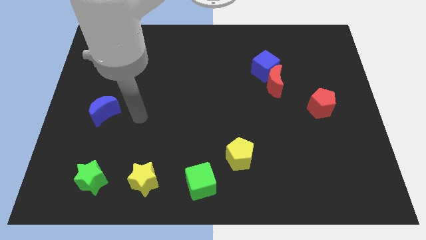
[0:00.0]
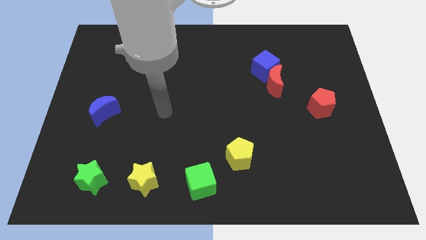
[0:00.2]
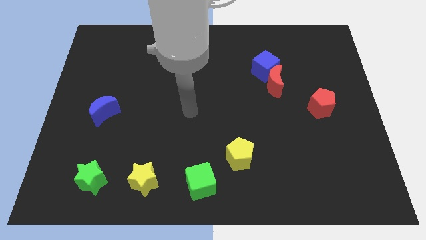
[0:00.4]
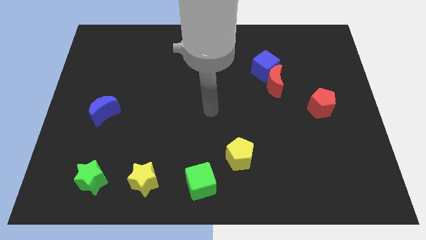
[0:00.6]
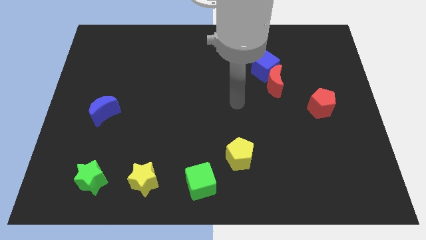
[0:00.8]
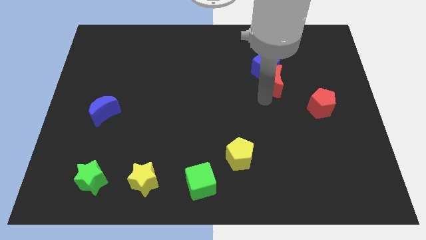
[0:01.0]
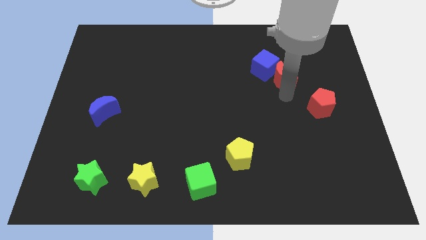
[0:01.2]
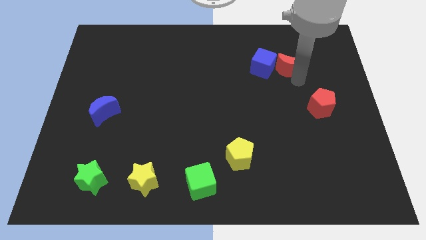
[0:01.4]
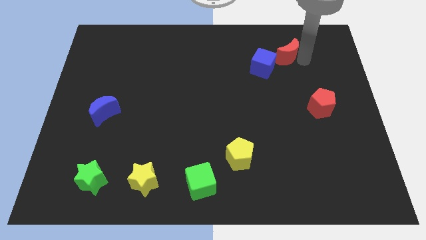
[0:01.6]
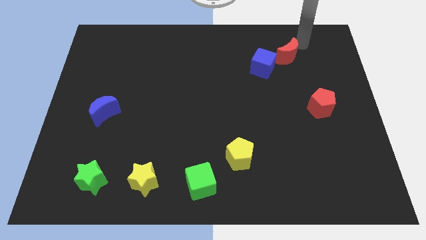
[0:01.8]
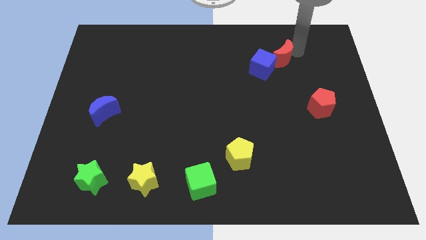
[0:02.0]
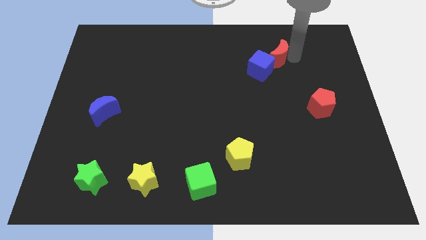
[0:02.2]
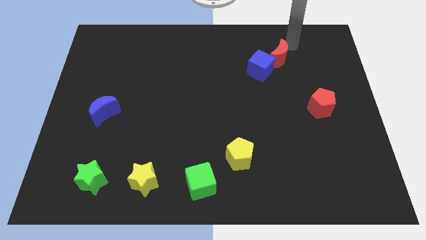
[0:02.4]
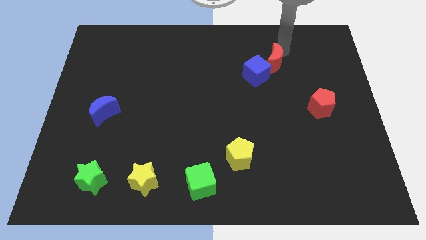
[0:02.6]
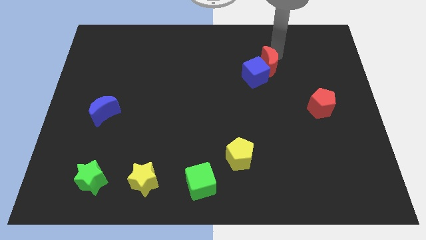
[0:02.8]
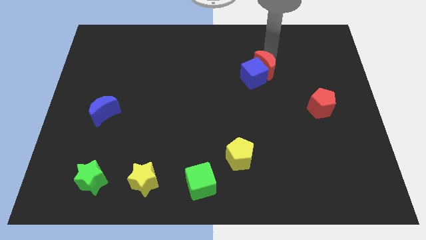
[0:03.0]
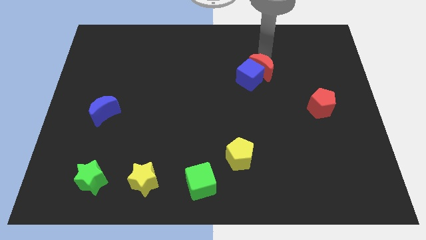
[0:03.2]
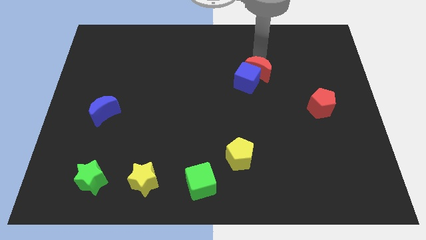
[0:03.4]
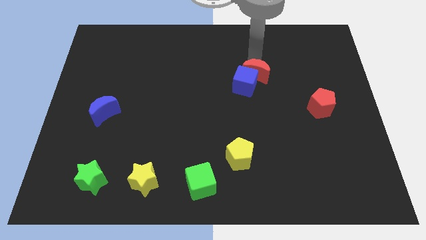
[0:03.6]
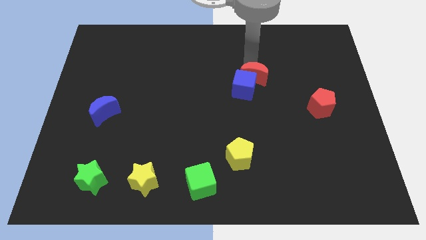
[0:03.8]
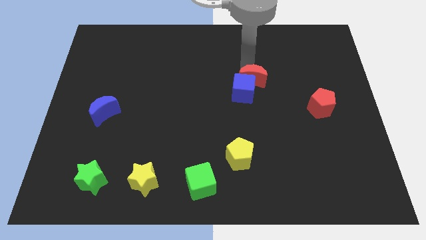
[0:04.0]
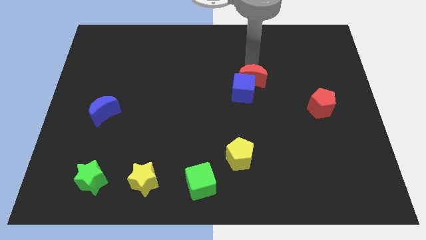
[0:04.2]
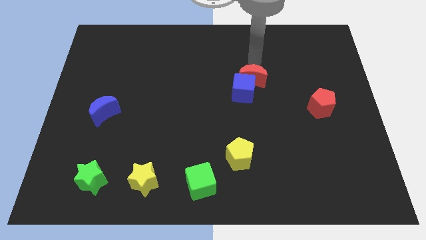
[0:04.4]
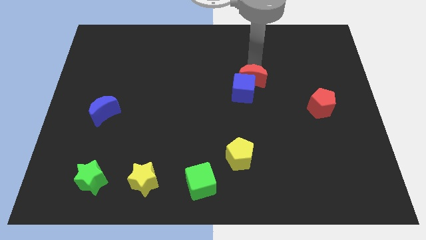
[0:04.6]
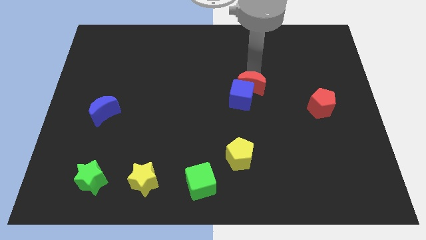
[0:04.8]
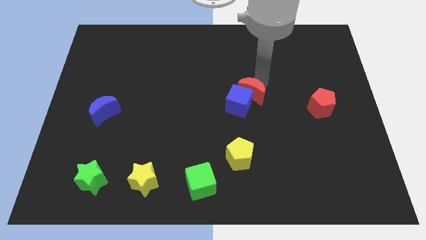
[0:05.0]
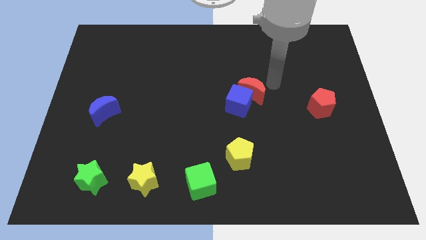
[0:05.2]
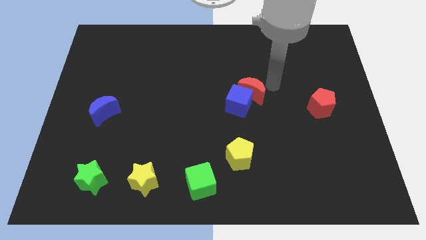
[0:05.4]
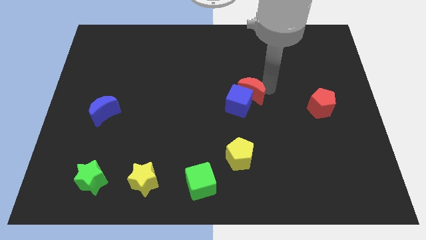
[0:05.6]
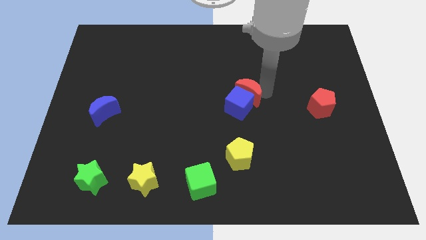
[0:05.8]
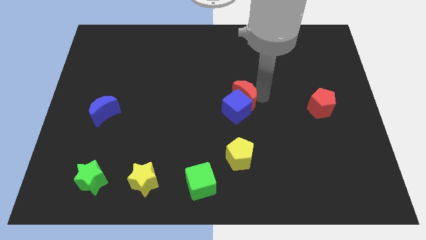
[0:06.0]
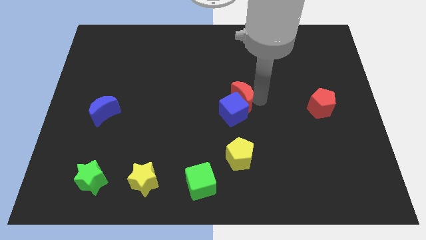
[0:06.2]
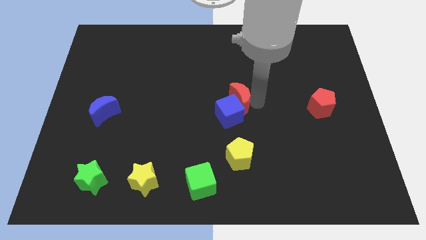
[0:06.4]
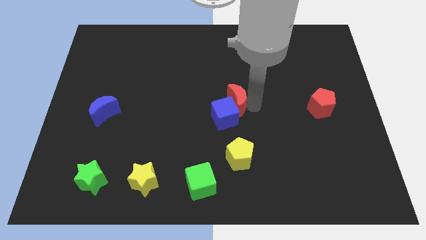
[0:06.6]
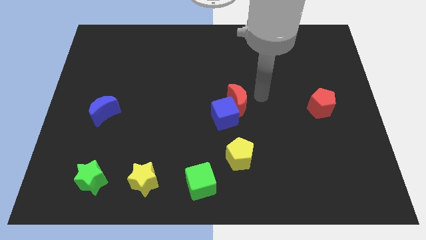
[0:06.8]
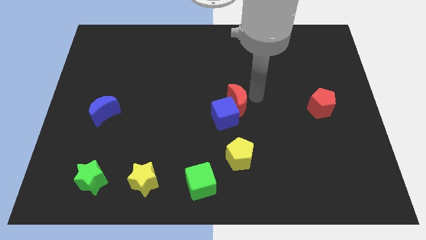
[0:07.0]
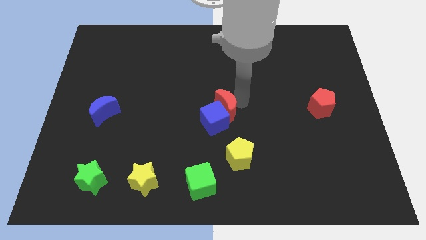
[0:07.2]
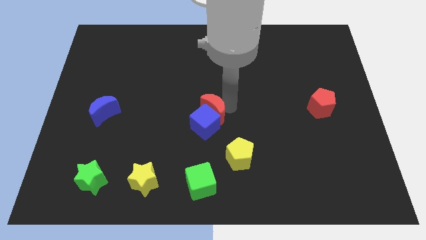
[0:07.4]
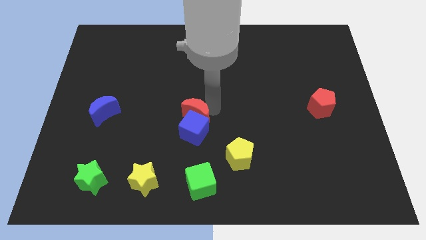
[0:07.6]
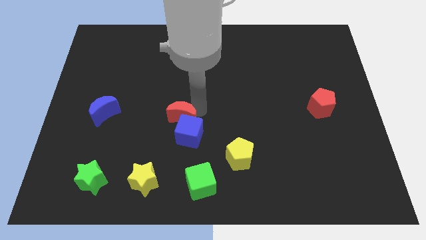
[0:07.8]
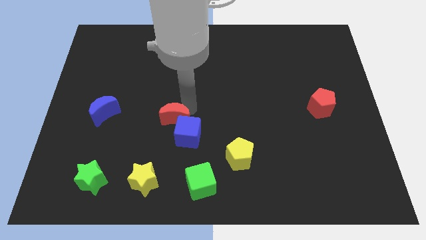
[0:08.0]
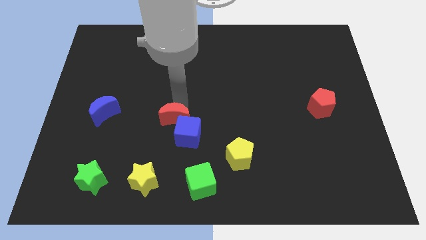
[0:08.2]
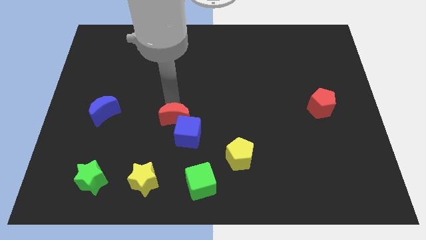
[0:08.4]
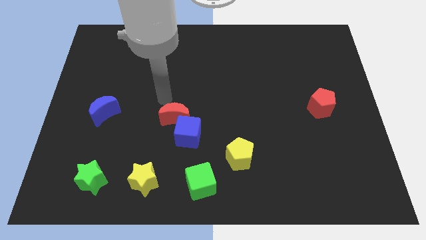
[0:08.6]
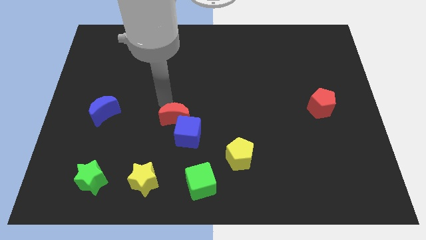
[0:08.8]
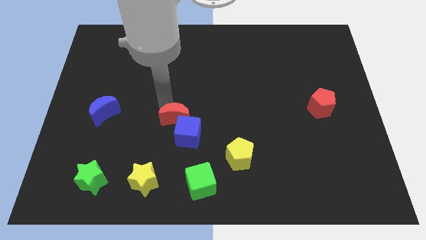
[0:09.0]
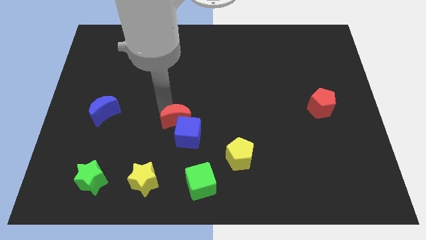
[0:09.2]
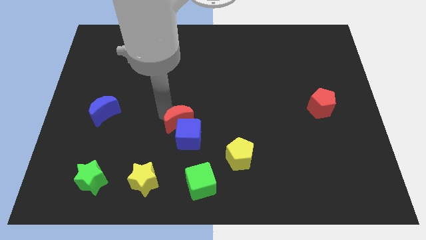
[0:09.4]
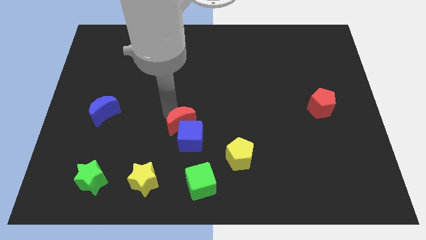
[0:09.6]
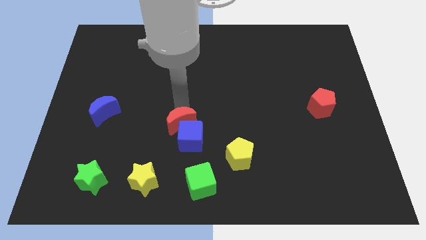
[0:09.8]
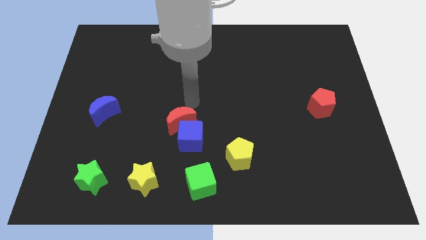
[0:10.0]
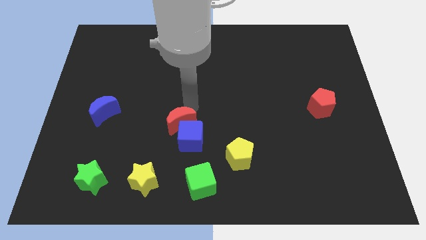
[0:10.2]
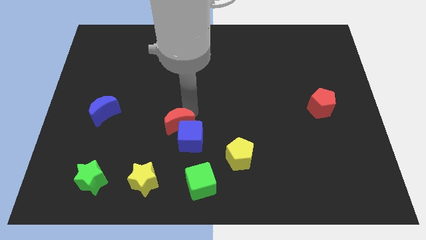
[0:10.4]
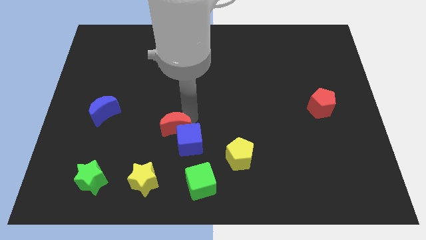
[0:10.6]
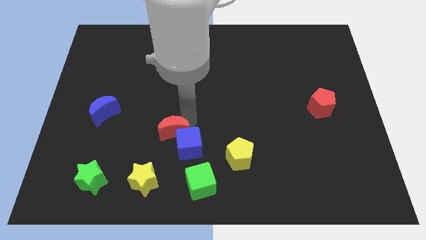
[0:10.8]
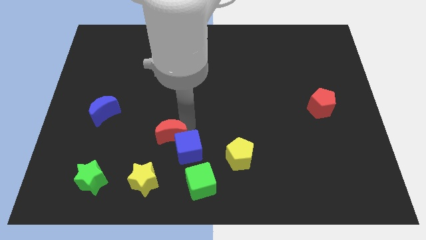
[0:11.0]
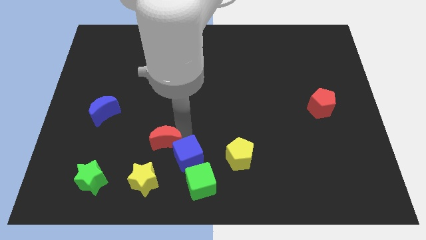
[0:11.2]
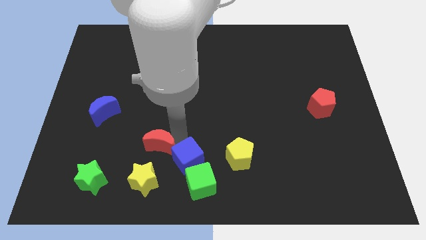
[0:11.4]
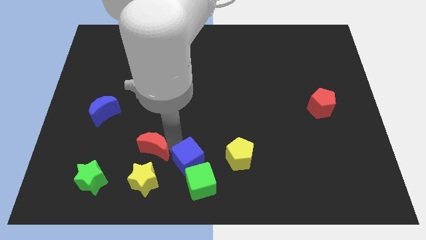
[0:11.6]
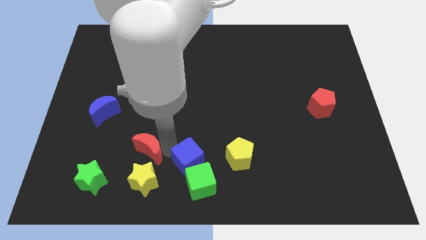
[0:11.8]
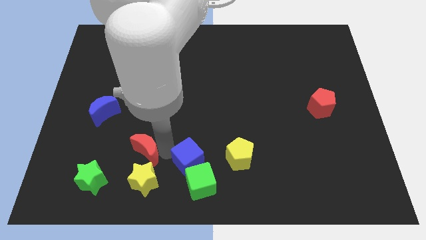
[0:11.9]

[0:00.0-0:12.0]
push the red moon to the top left of the yellow star

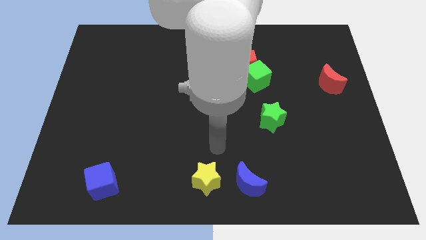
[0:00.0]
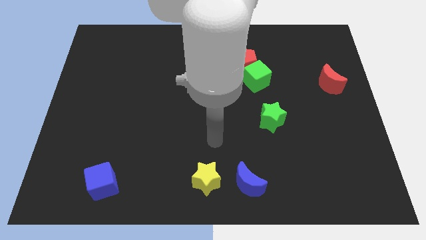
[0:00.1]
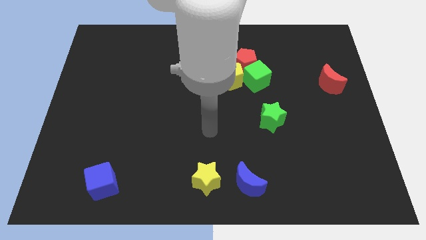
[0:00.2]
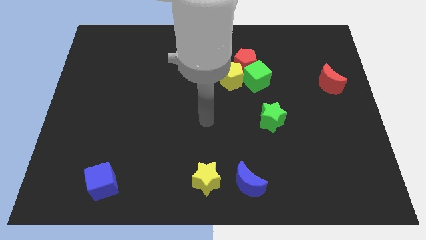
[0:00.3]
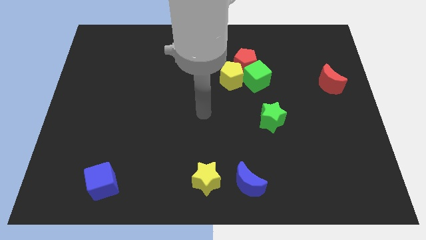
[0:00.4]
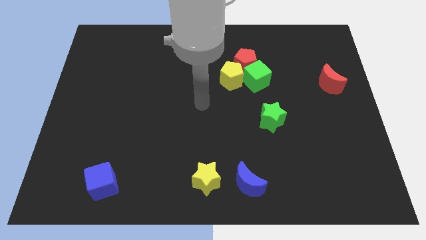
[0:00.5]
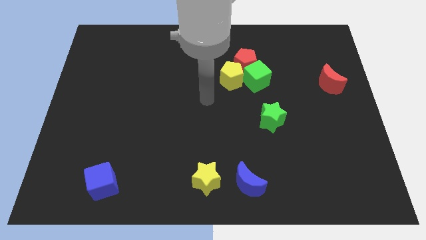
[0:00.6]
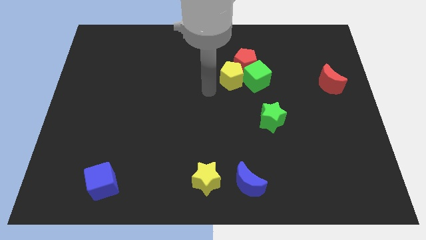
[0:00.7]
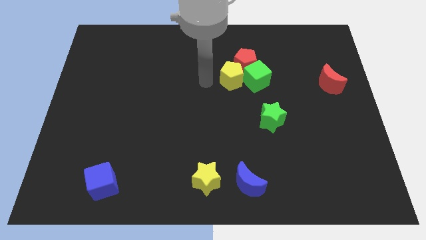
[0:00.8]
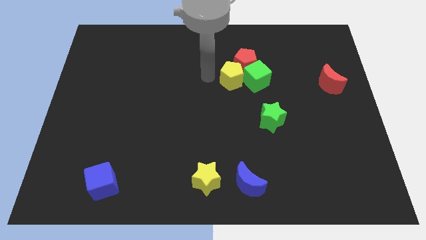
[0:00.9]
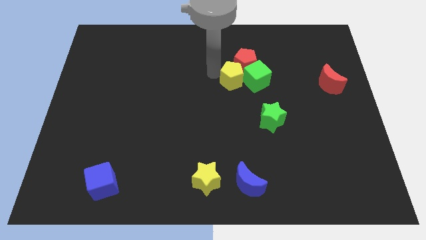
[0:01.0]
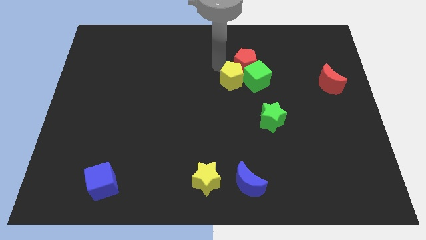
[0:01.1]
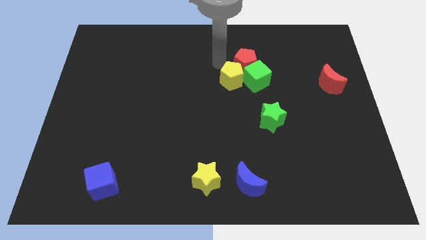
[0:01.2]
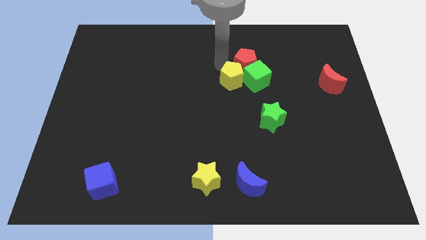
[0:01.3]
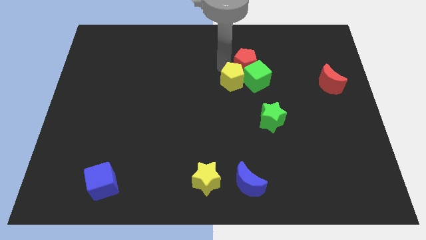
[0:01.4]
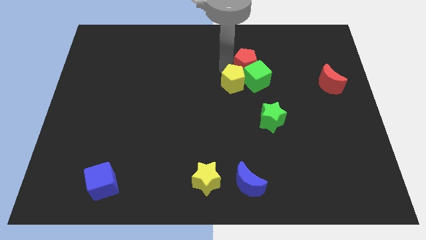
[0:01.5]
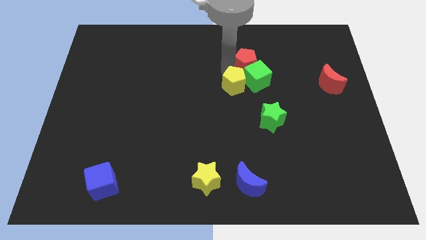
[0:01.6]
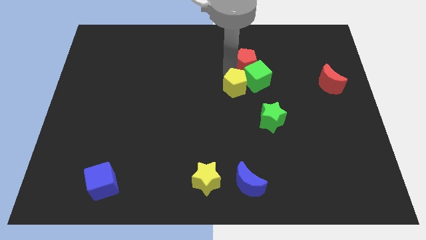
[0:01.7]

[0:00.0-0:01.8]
put the yellow pentagon to the top left of the green star
